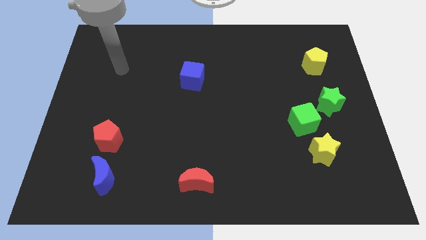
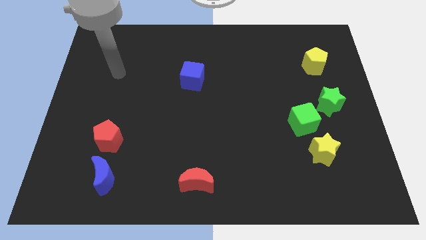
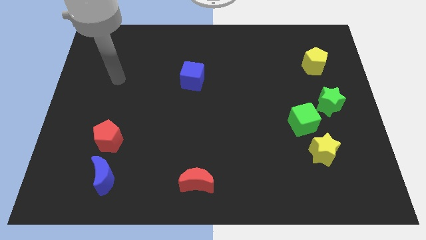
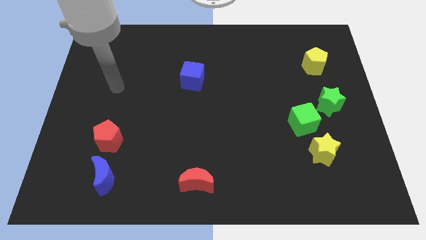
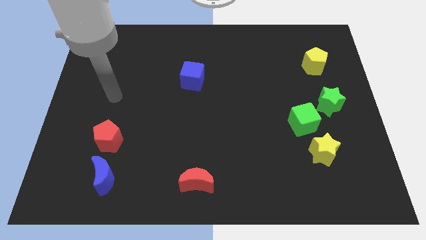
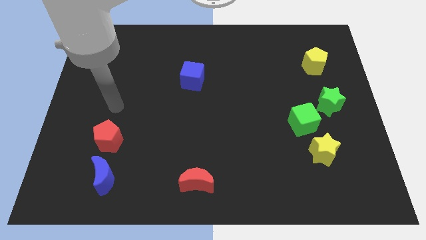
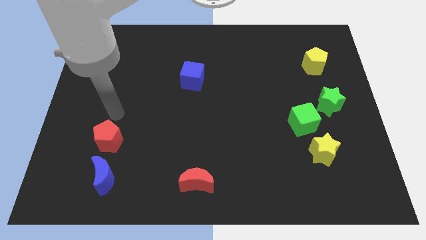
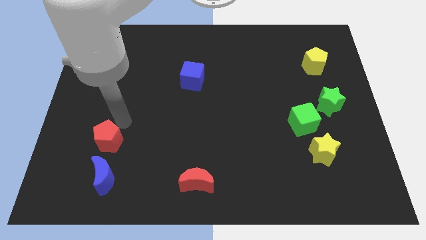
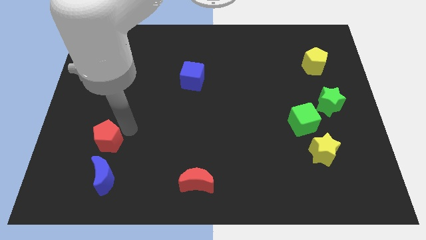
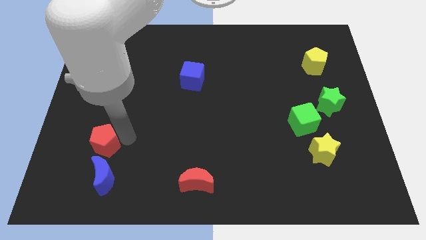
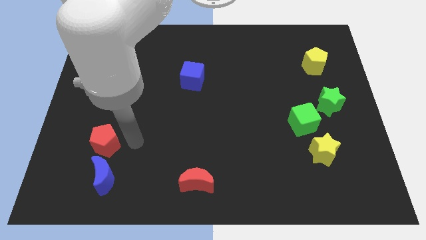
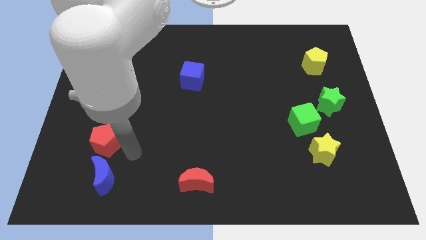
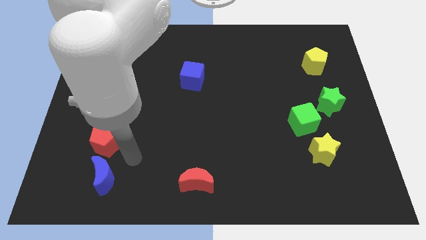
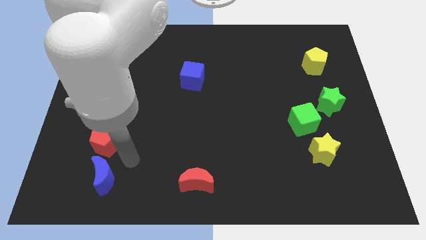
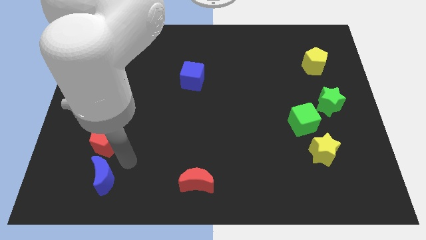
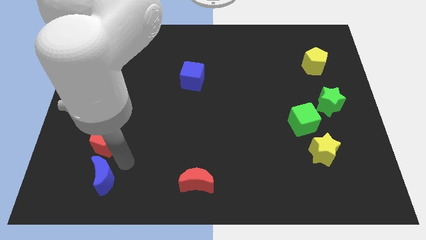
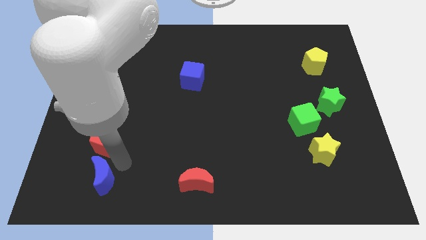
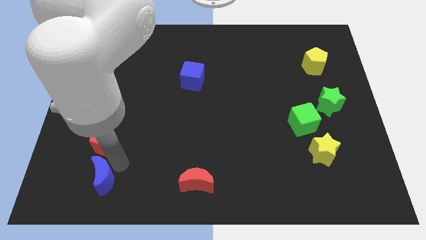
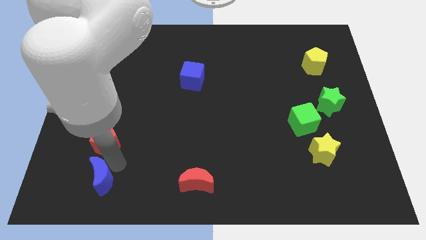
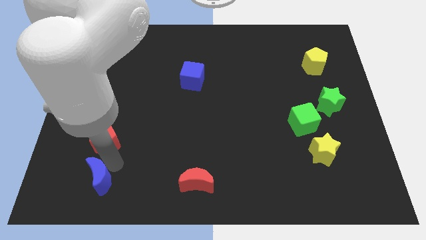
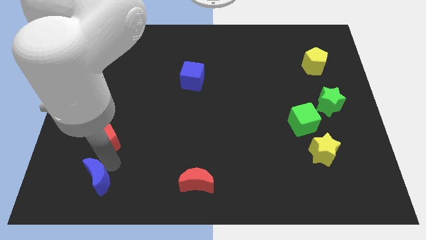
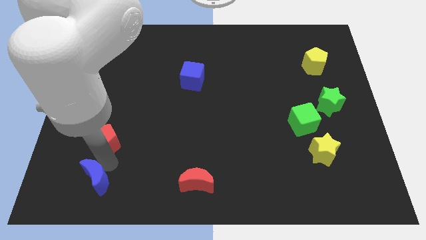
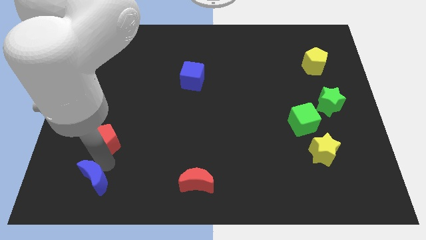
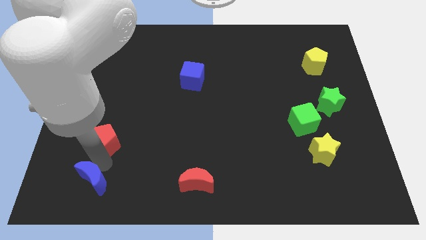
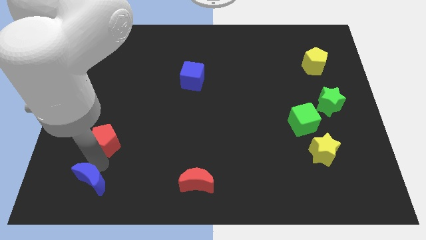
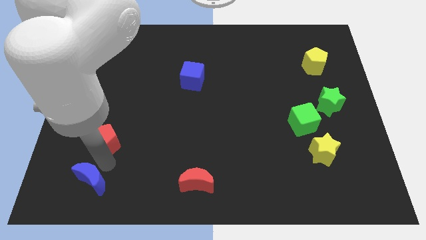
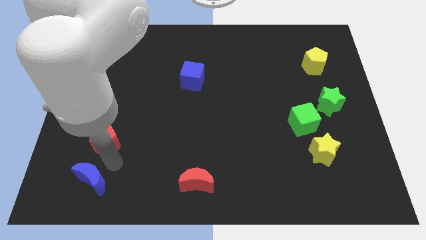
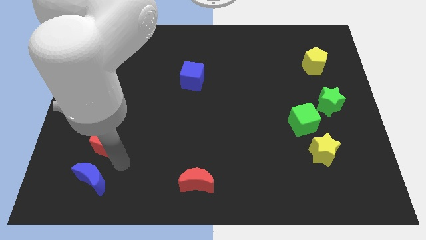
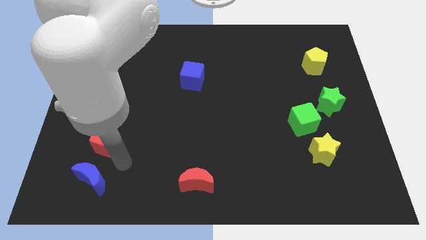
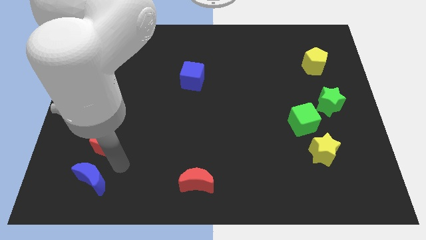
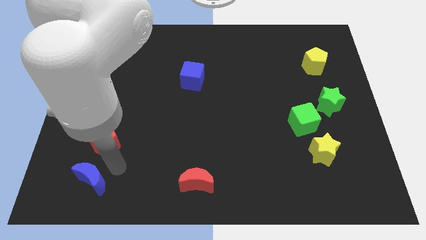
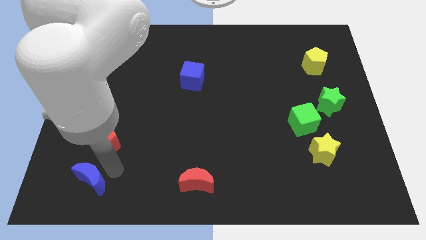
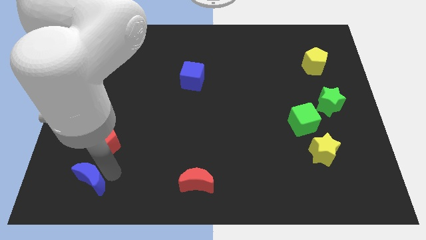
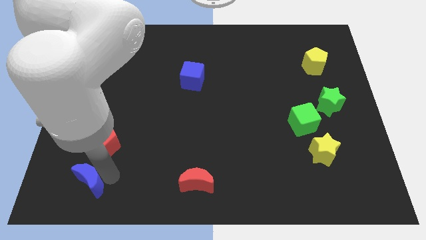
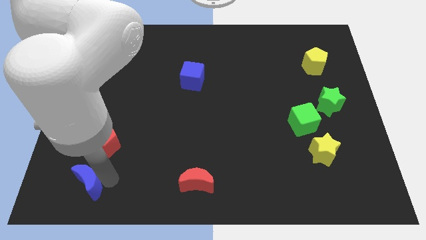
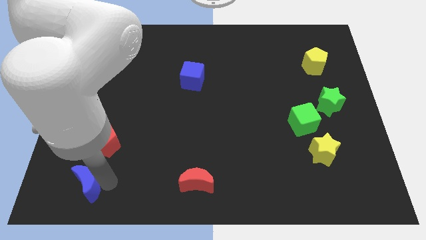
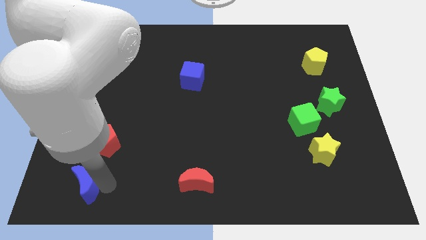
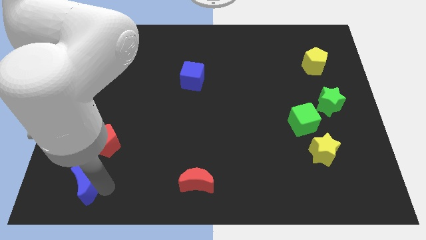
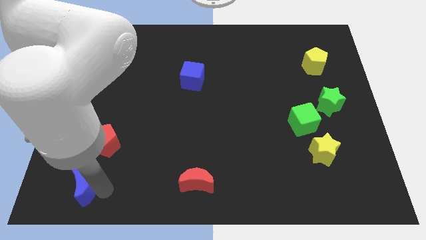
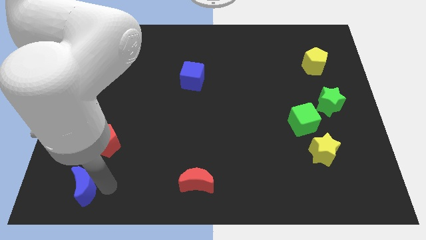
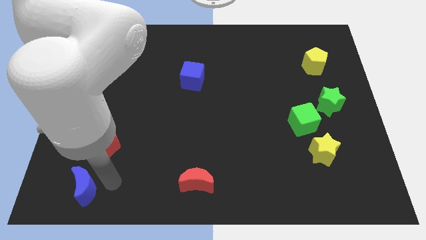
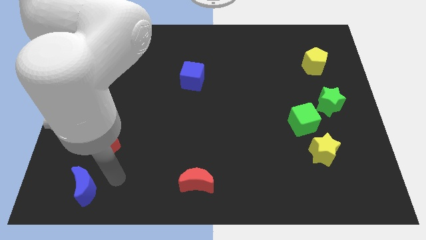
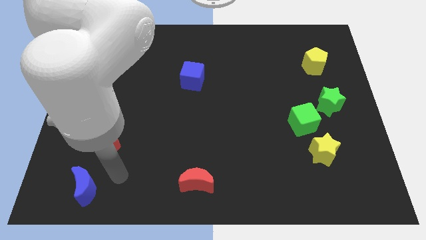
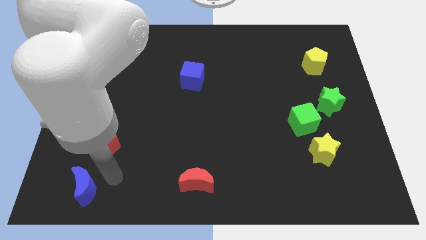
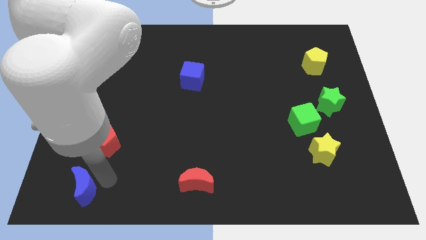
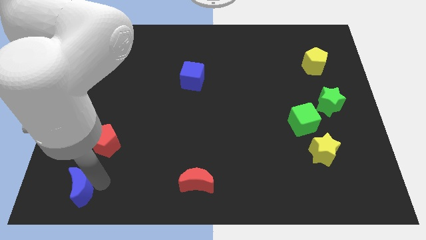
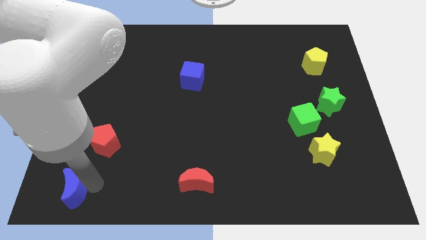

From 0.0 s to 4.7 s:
put the blue moon to the lower left corner

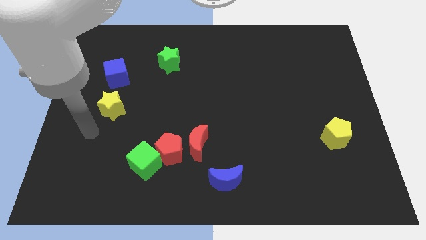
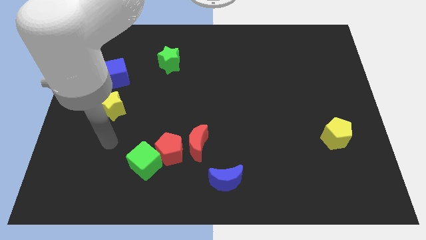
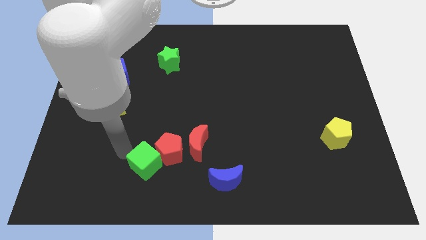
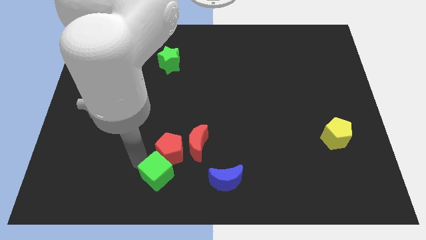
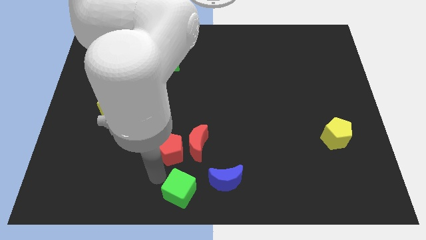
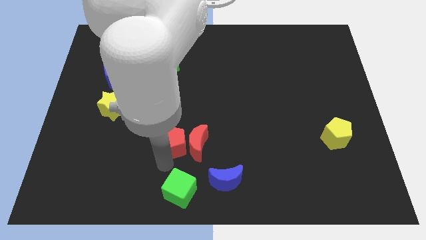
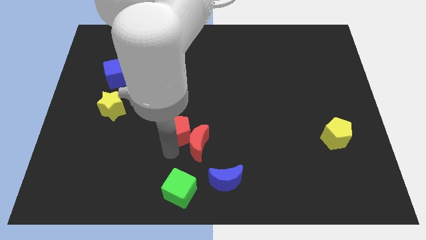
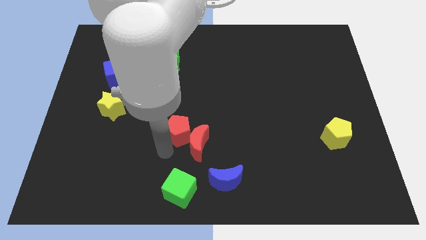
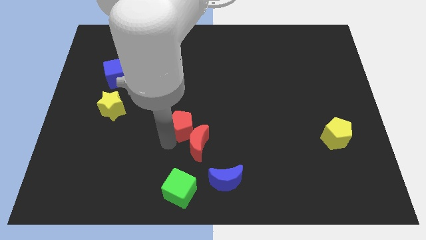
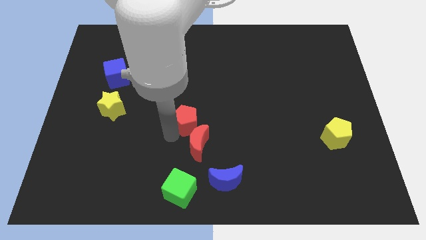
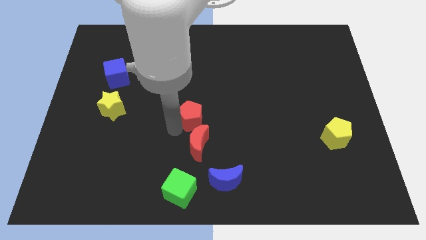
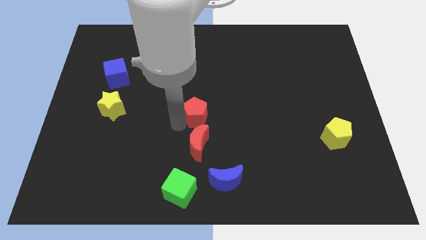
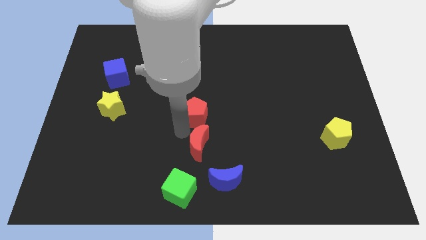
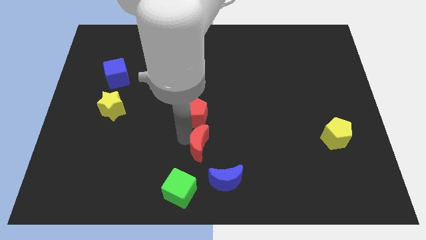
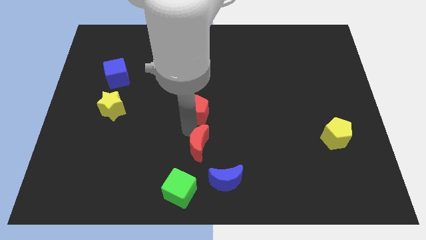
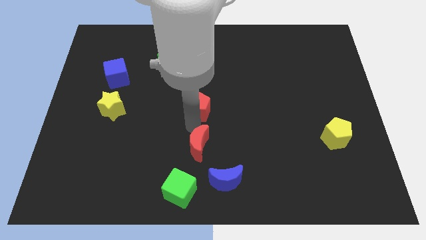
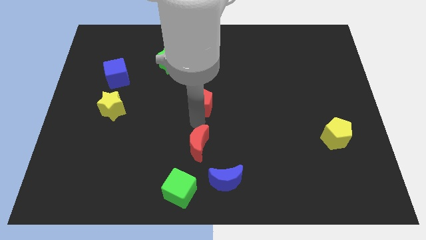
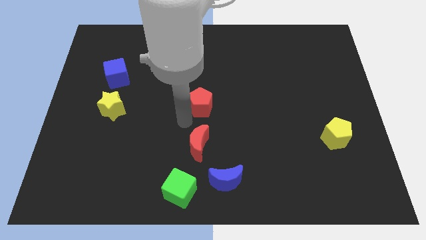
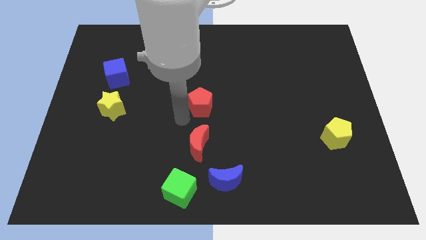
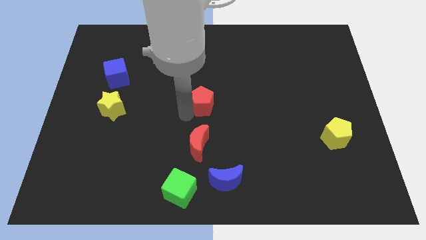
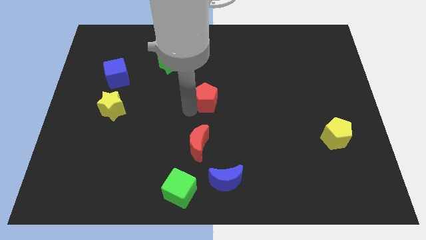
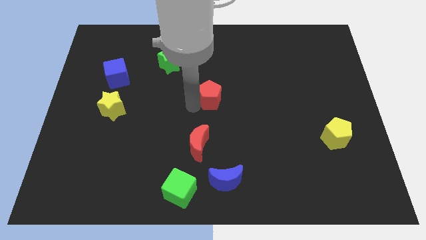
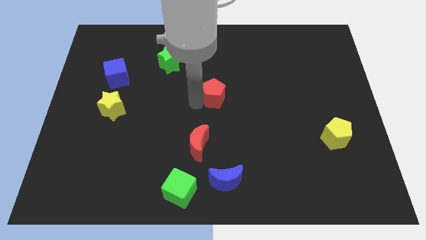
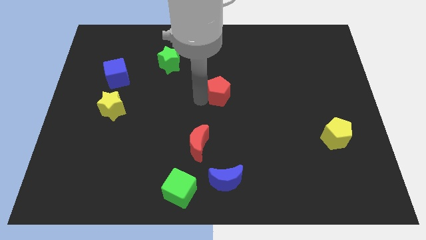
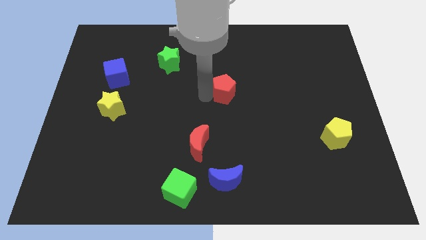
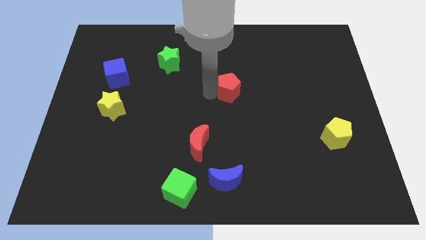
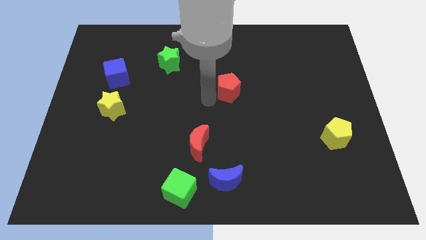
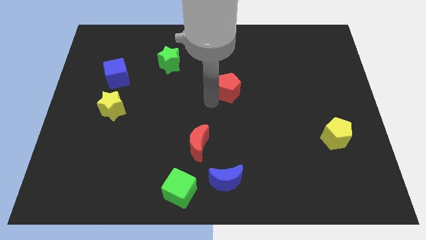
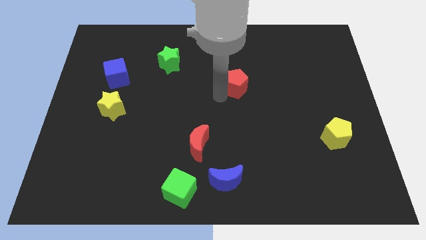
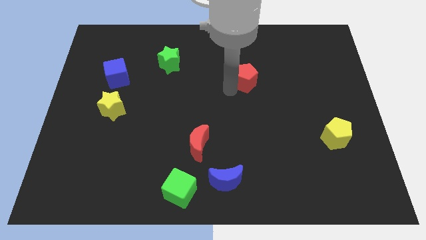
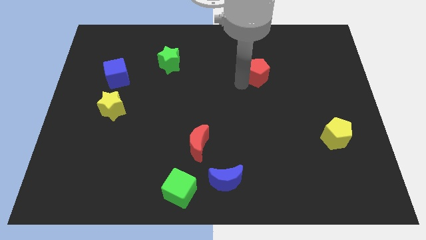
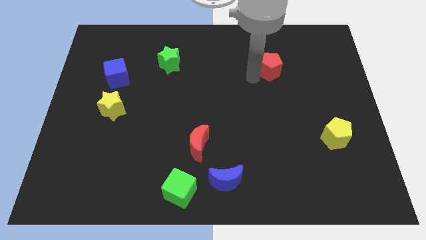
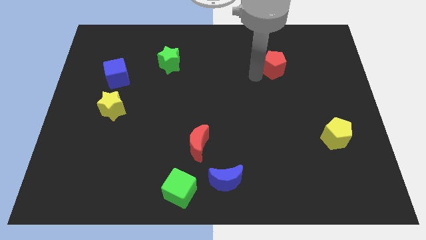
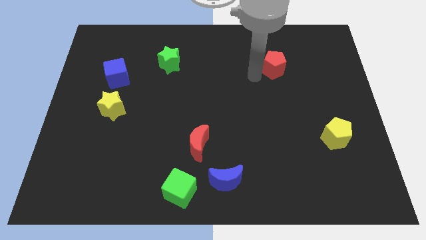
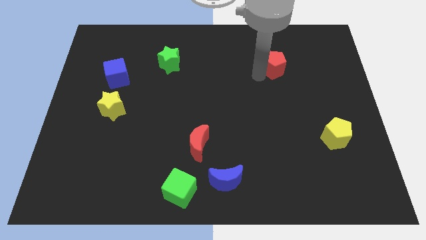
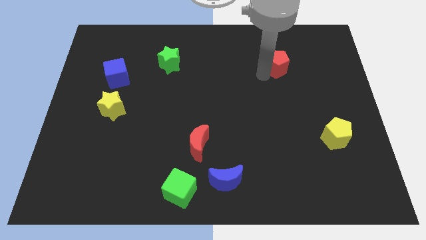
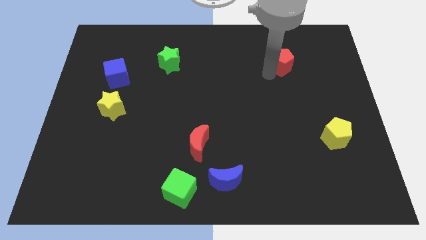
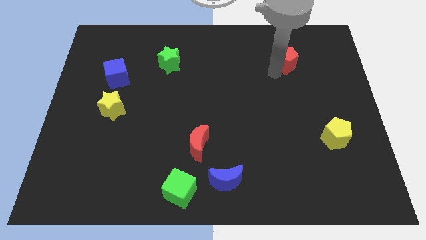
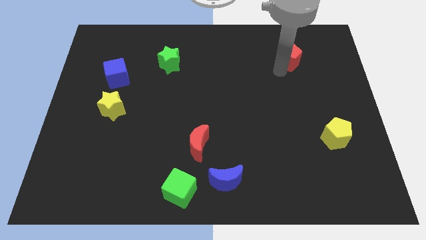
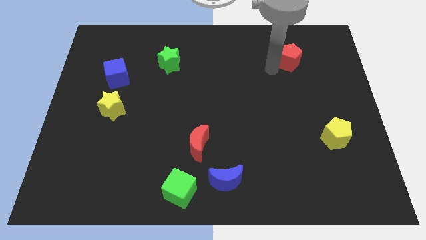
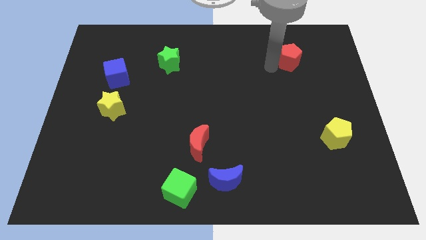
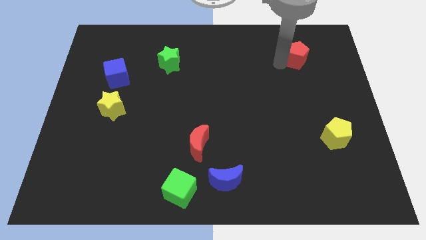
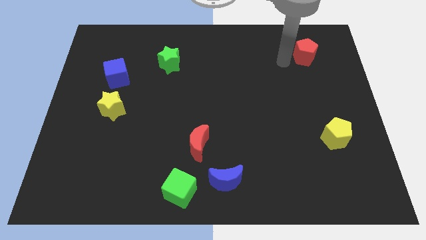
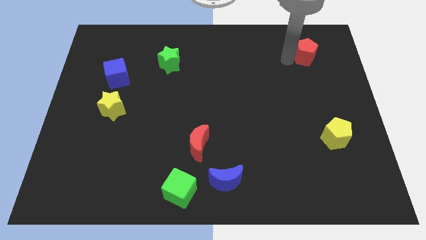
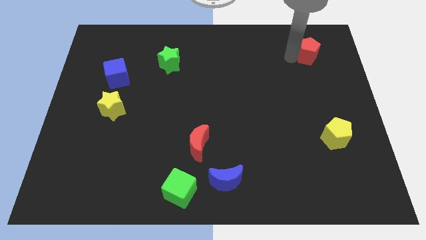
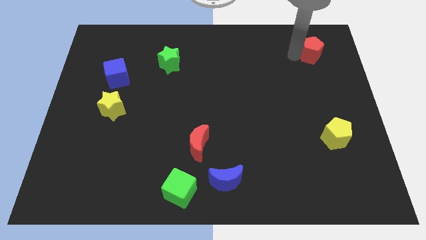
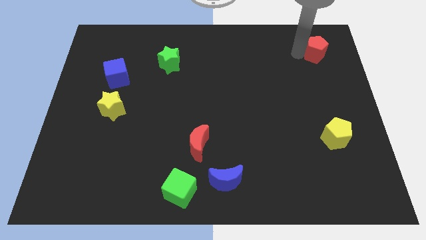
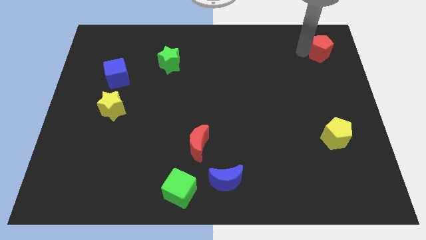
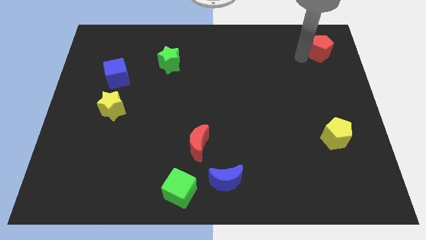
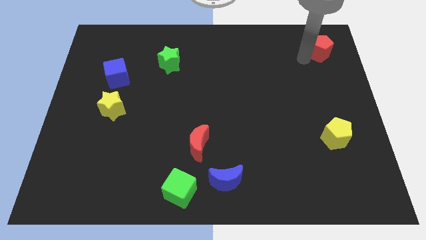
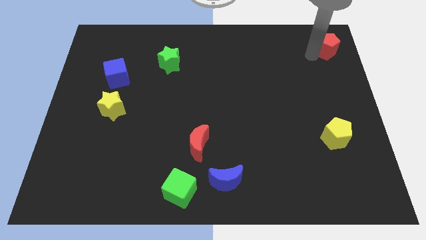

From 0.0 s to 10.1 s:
move the red pentagon to the upper right corner
